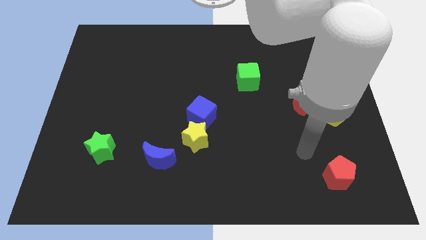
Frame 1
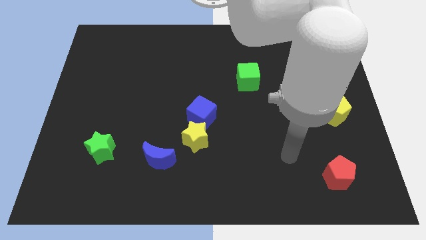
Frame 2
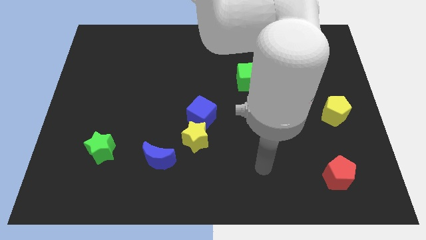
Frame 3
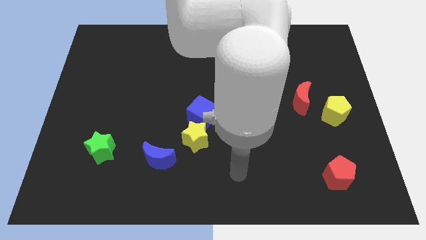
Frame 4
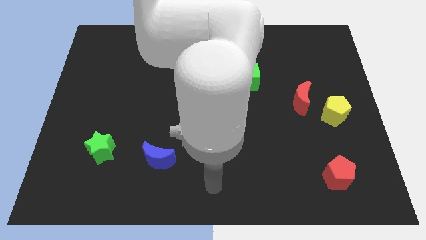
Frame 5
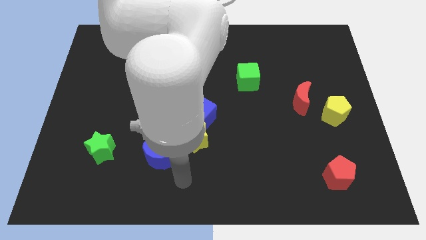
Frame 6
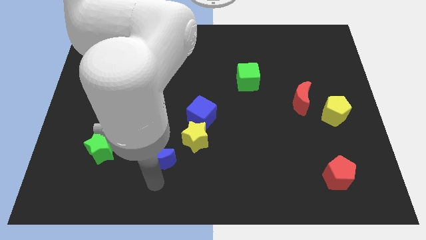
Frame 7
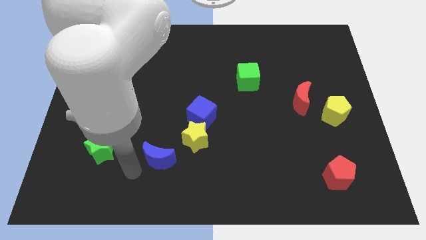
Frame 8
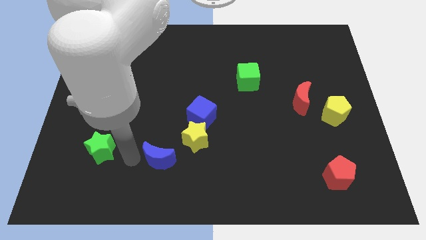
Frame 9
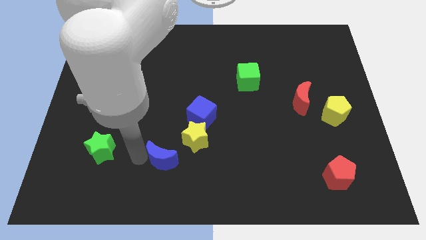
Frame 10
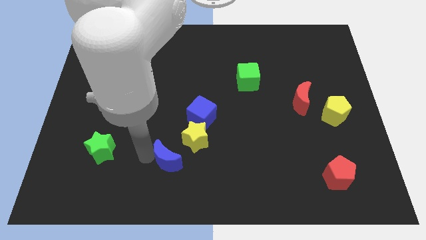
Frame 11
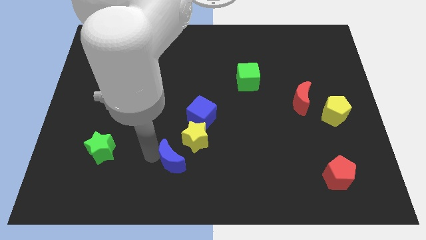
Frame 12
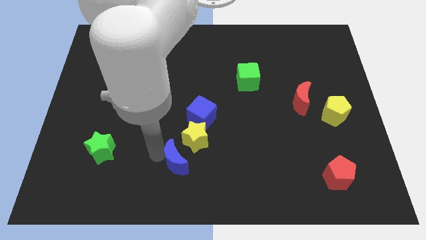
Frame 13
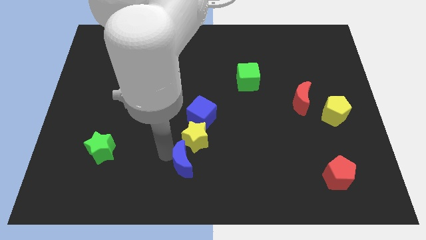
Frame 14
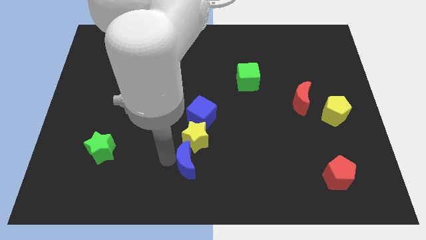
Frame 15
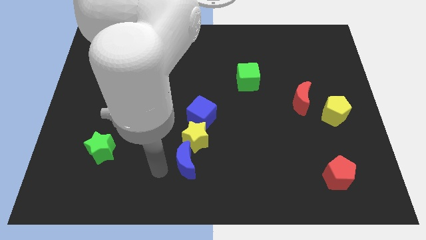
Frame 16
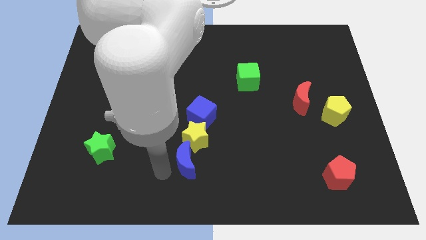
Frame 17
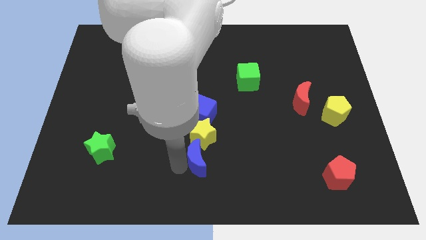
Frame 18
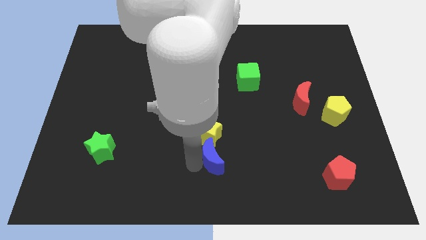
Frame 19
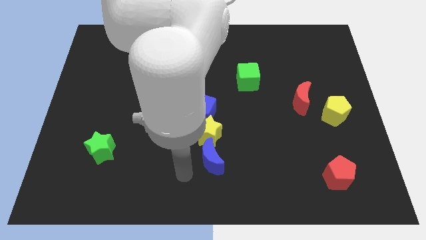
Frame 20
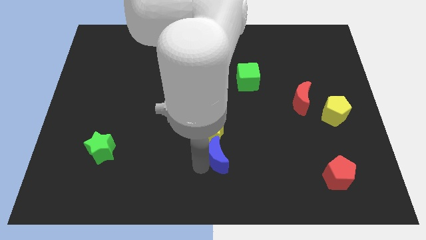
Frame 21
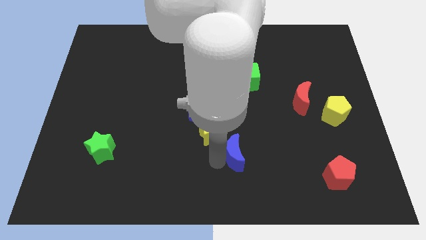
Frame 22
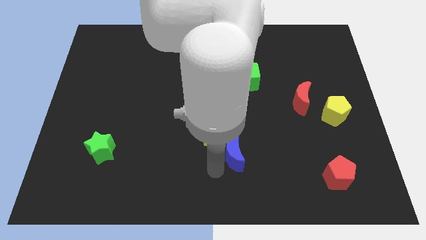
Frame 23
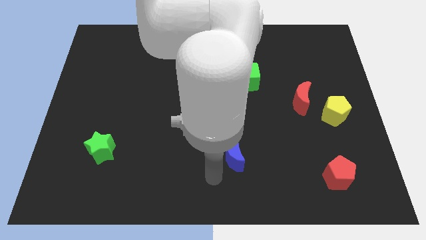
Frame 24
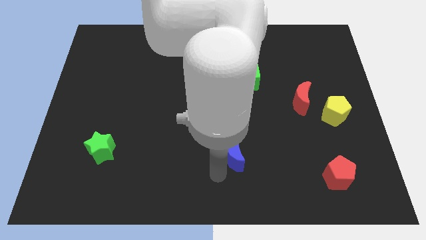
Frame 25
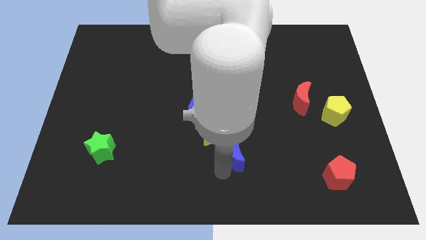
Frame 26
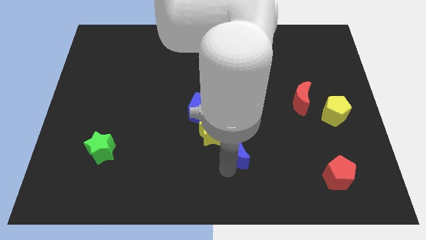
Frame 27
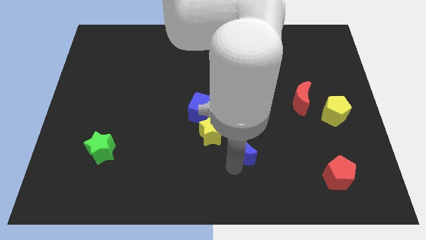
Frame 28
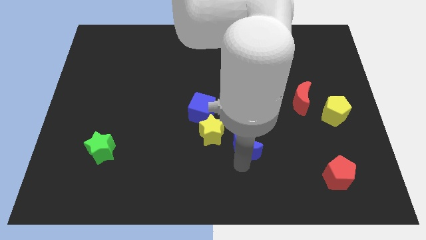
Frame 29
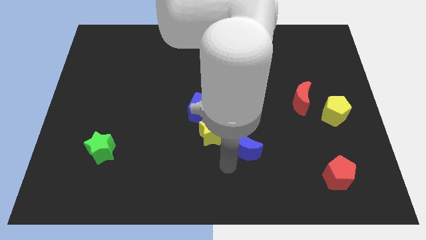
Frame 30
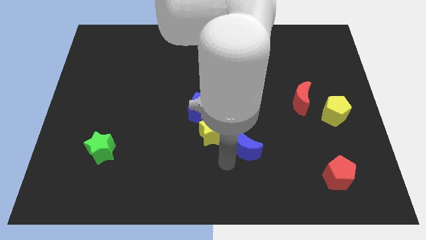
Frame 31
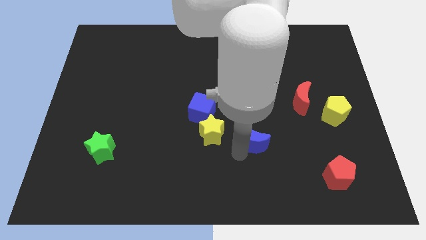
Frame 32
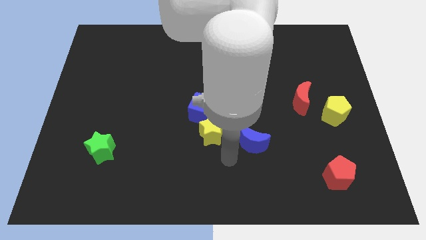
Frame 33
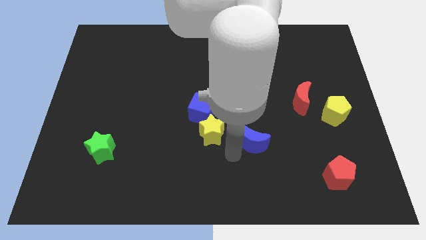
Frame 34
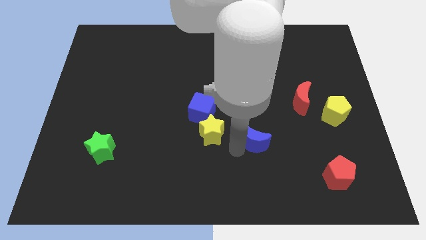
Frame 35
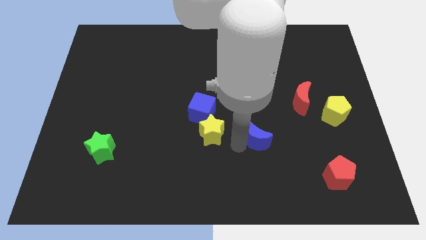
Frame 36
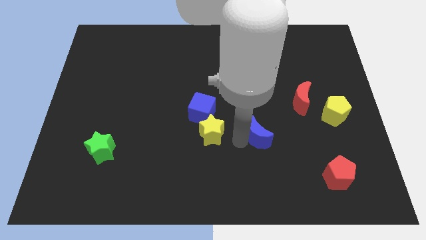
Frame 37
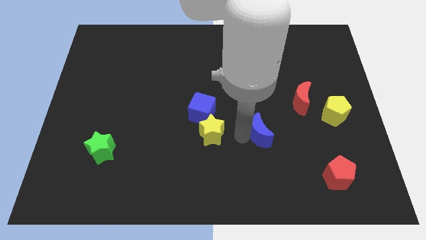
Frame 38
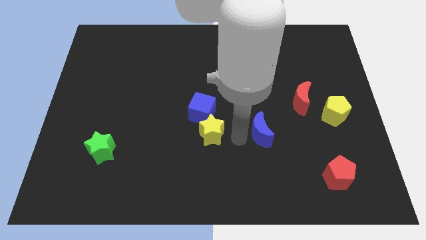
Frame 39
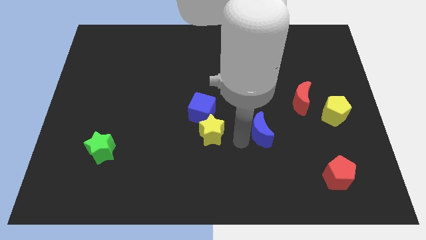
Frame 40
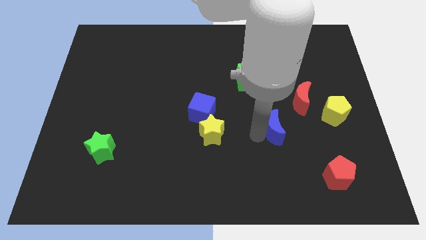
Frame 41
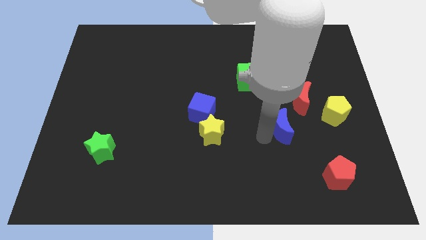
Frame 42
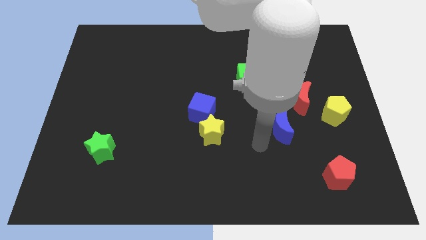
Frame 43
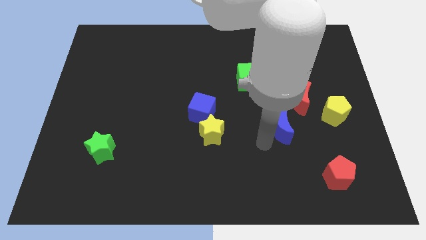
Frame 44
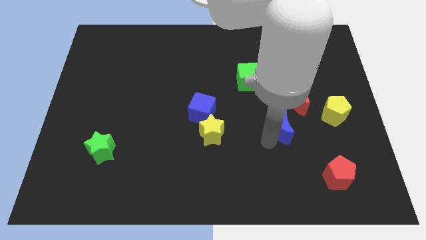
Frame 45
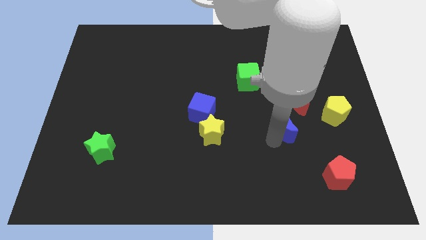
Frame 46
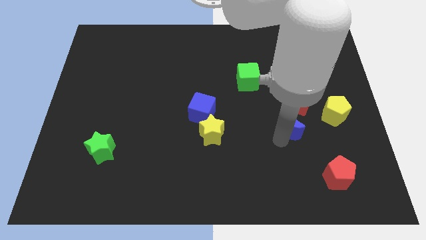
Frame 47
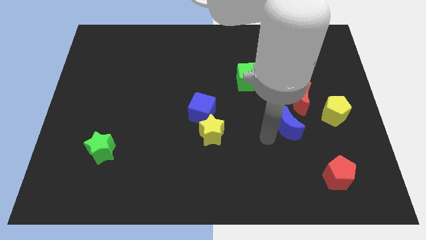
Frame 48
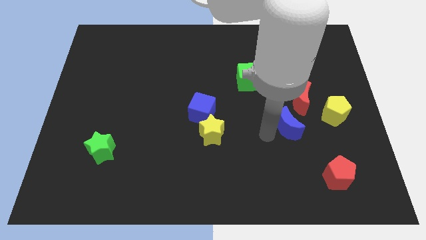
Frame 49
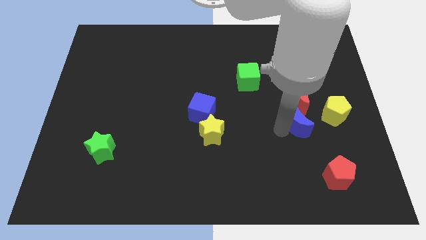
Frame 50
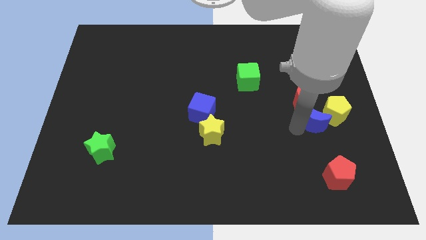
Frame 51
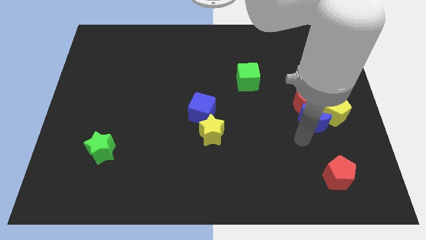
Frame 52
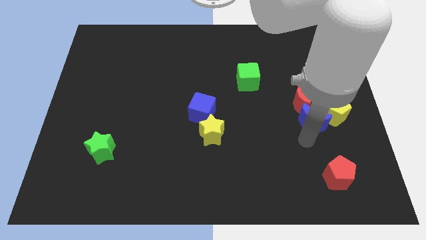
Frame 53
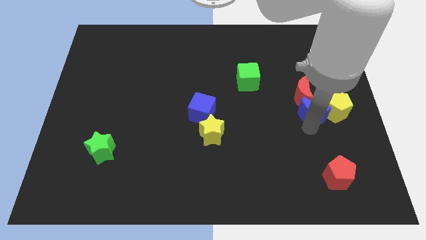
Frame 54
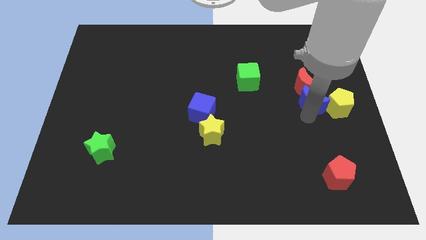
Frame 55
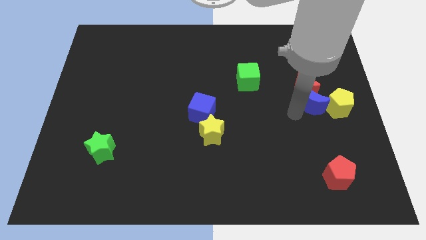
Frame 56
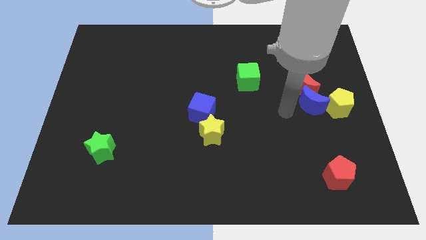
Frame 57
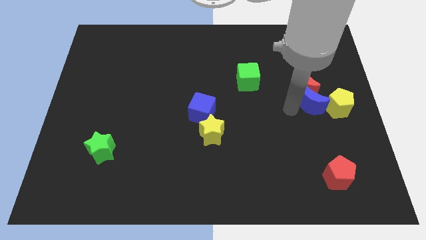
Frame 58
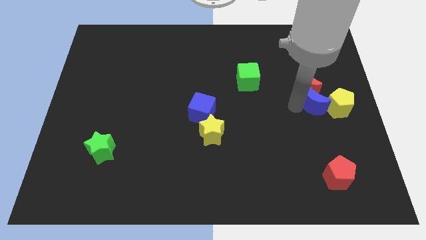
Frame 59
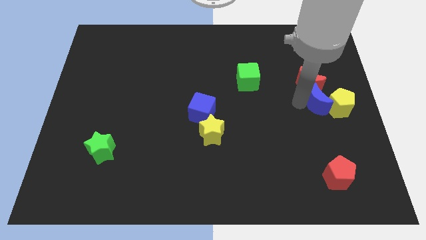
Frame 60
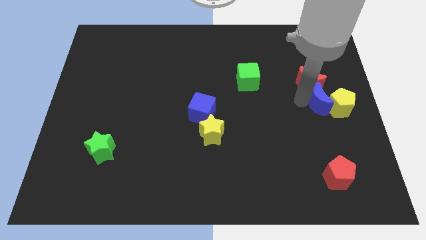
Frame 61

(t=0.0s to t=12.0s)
put the blue moon to the right side

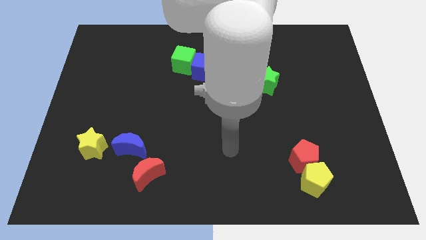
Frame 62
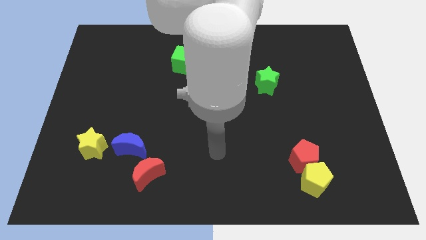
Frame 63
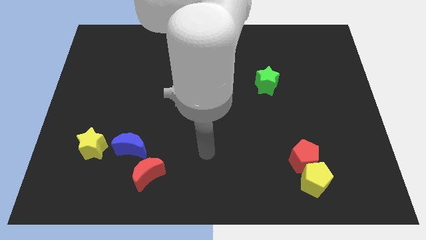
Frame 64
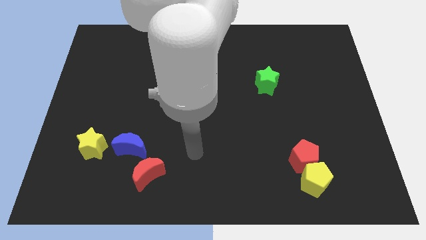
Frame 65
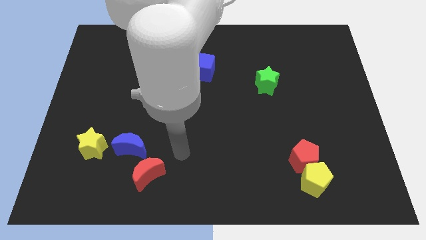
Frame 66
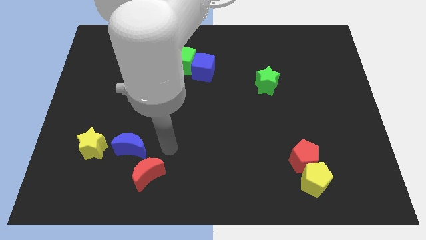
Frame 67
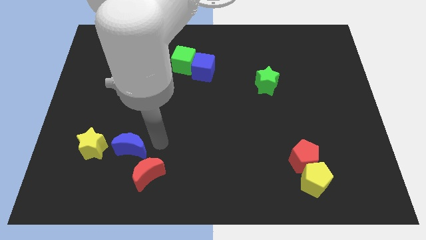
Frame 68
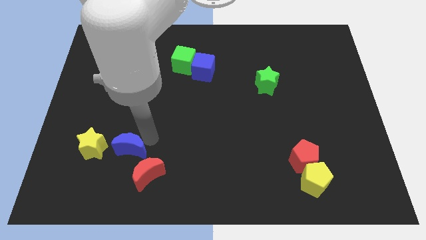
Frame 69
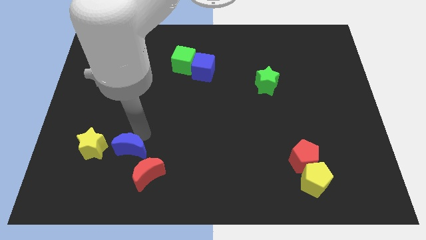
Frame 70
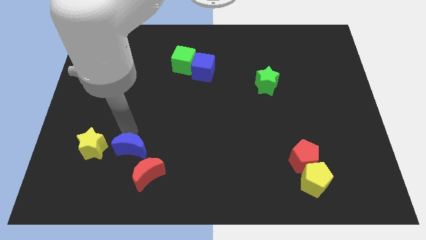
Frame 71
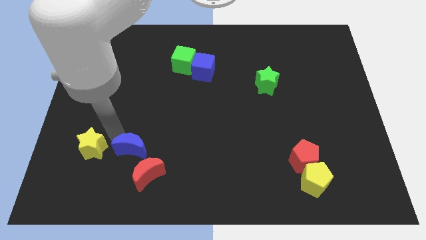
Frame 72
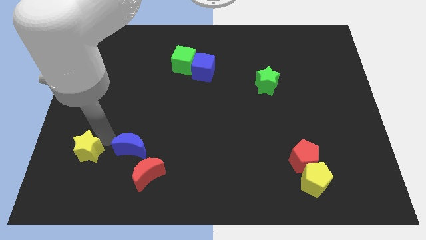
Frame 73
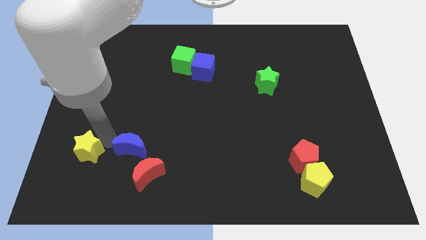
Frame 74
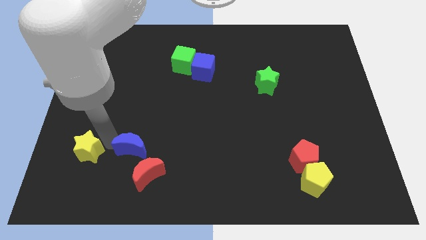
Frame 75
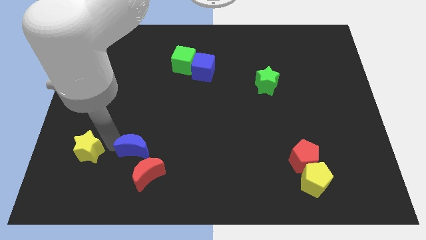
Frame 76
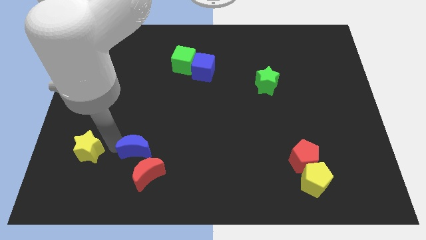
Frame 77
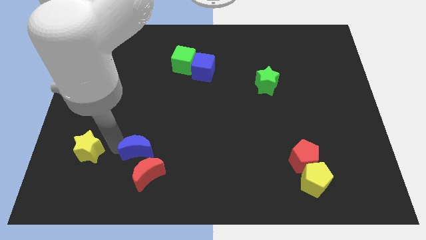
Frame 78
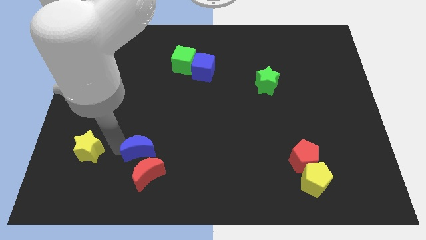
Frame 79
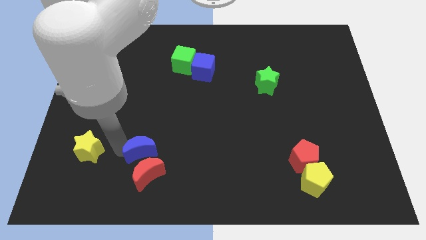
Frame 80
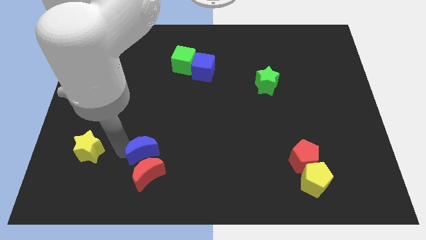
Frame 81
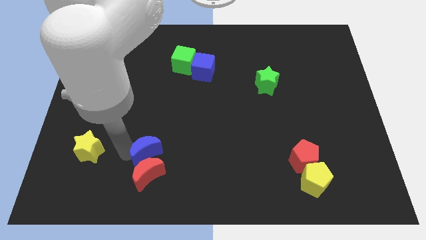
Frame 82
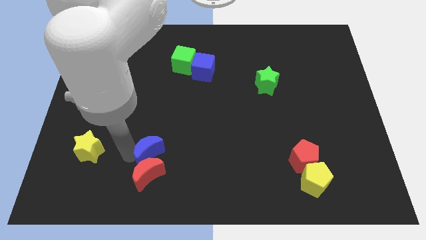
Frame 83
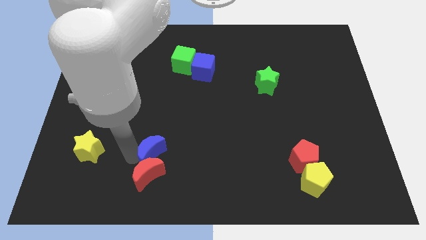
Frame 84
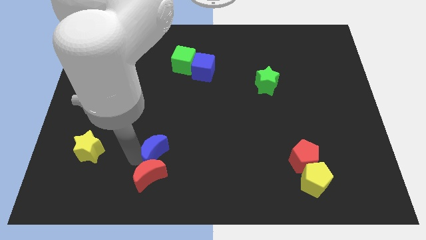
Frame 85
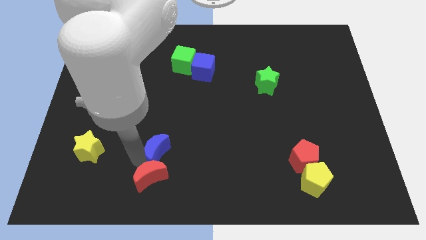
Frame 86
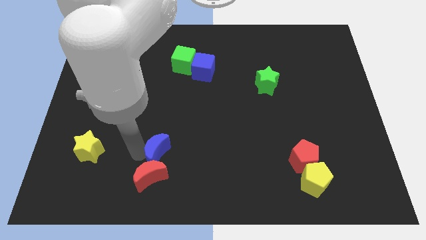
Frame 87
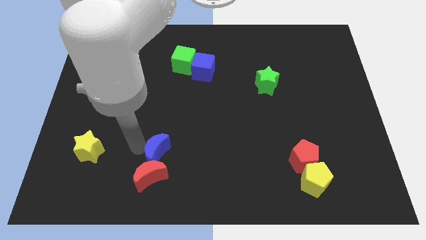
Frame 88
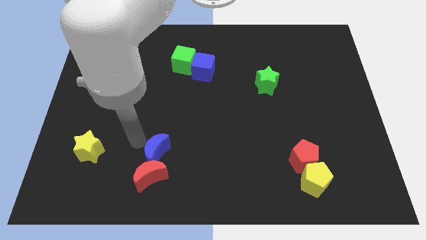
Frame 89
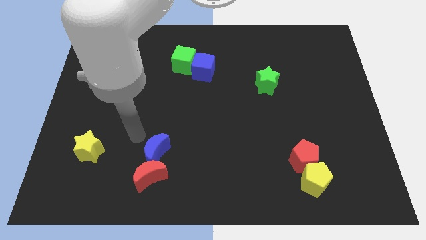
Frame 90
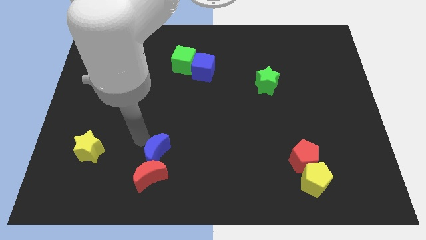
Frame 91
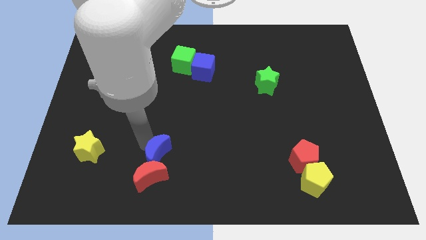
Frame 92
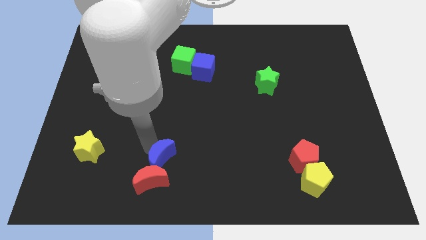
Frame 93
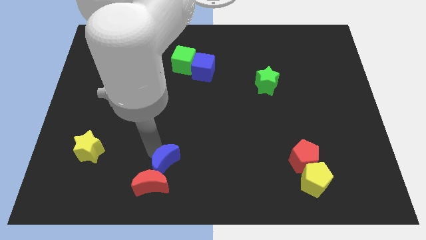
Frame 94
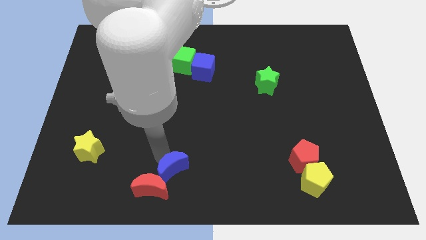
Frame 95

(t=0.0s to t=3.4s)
slide the blue moon to the bottom
